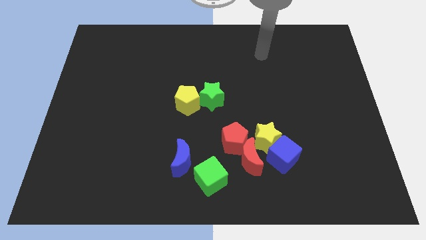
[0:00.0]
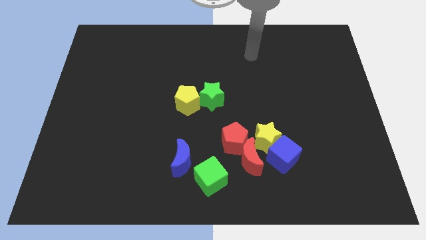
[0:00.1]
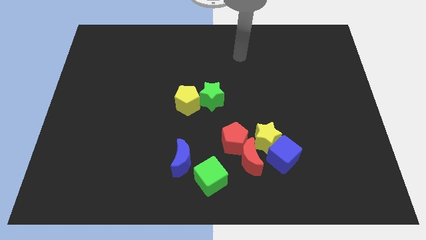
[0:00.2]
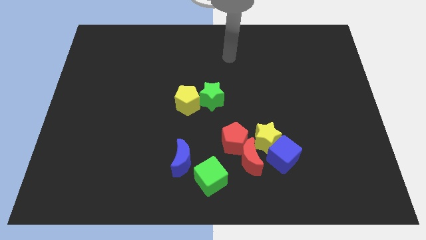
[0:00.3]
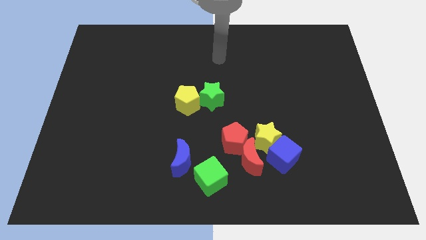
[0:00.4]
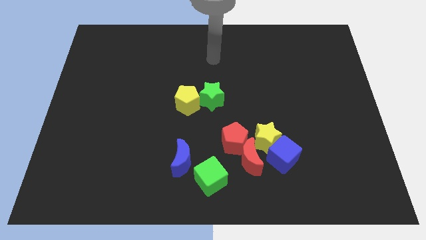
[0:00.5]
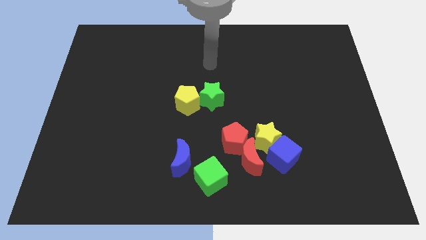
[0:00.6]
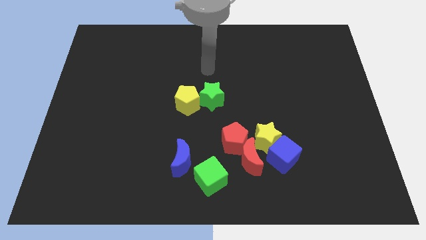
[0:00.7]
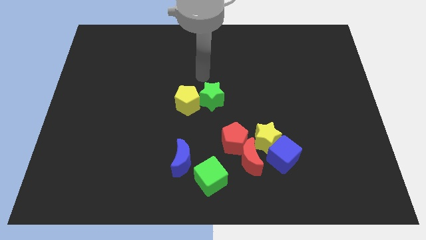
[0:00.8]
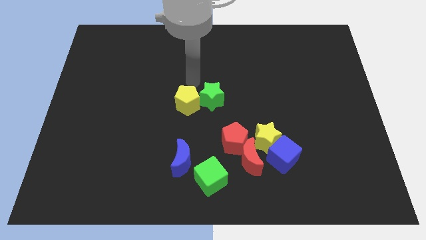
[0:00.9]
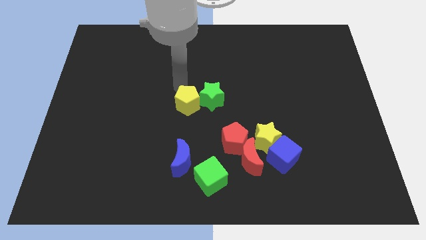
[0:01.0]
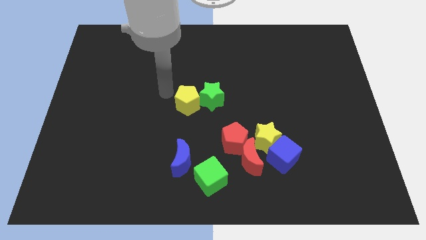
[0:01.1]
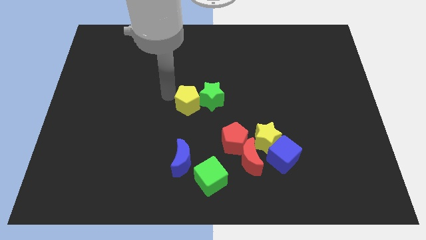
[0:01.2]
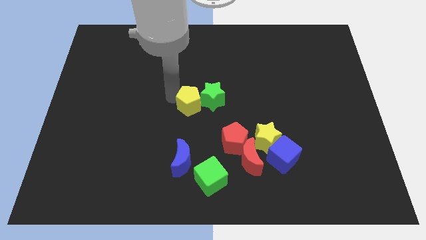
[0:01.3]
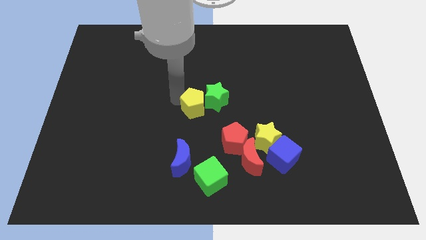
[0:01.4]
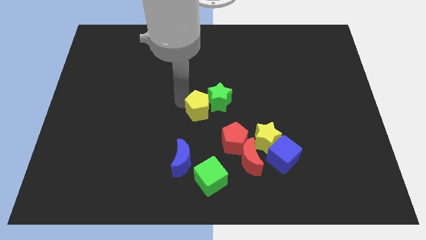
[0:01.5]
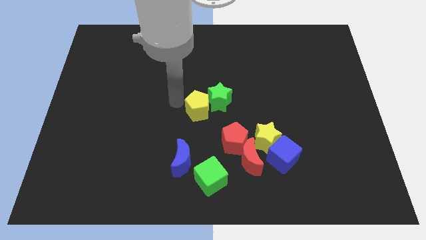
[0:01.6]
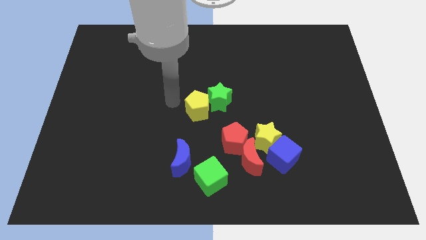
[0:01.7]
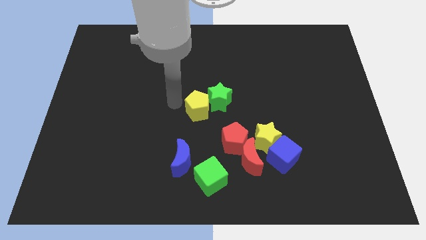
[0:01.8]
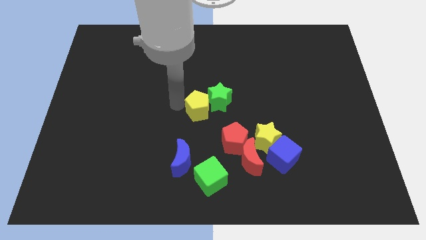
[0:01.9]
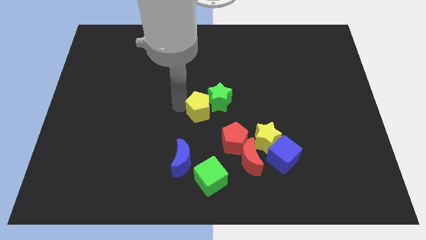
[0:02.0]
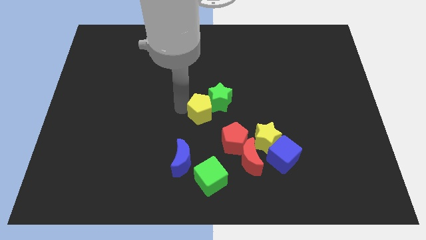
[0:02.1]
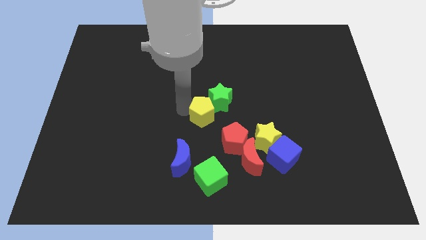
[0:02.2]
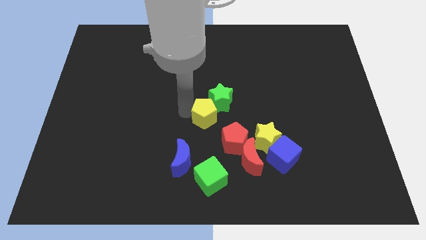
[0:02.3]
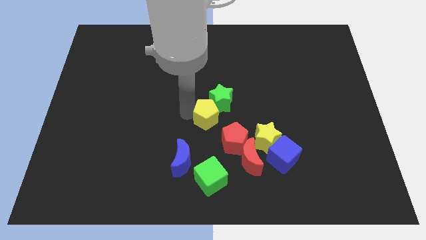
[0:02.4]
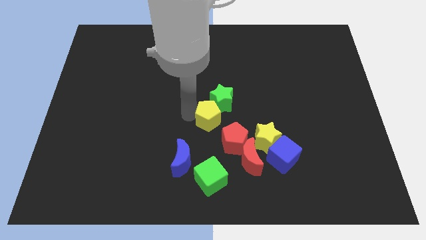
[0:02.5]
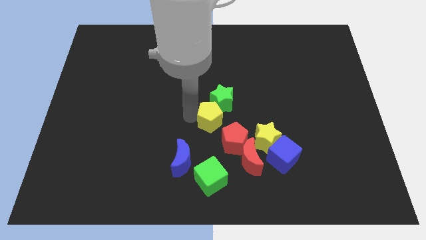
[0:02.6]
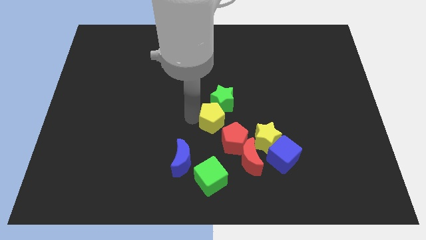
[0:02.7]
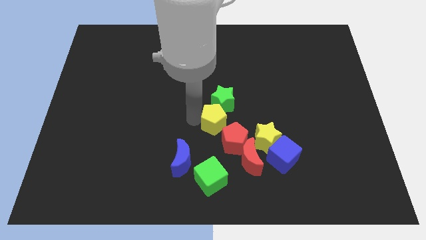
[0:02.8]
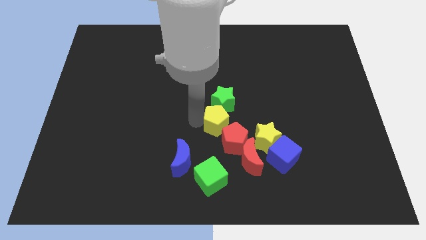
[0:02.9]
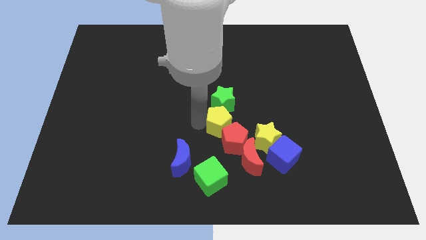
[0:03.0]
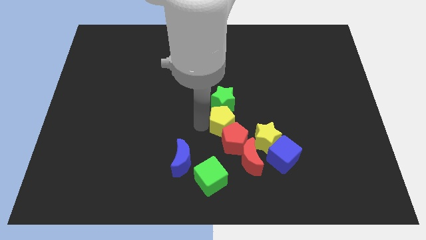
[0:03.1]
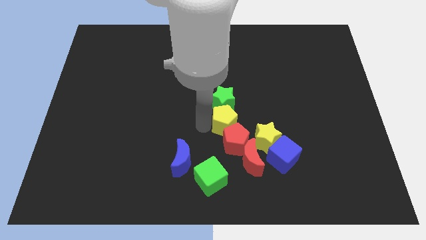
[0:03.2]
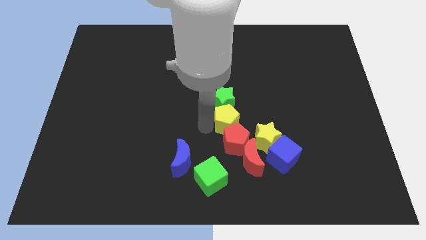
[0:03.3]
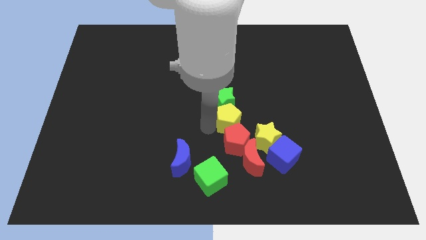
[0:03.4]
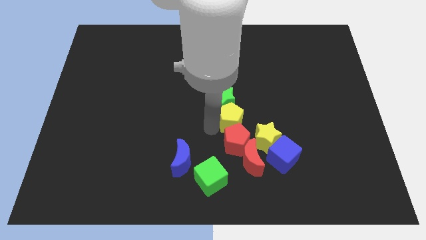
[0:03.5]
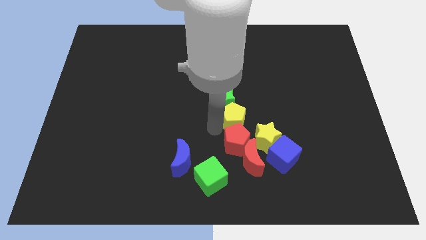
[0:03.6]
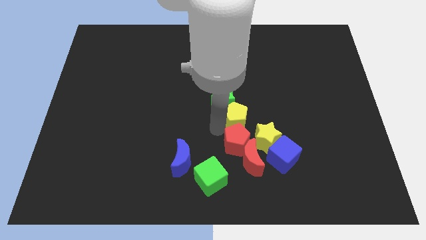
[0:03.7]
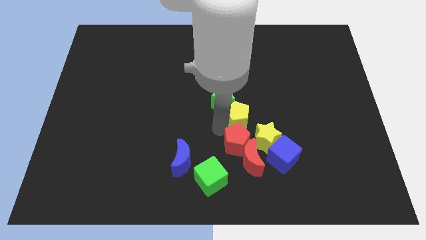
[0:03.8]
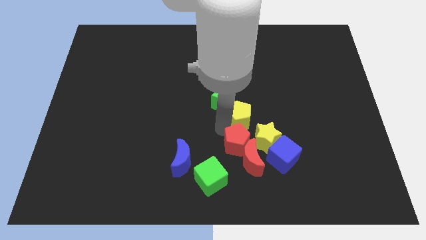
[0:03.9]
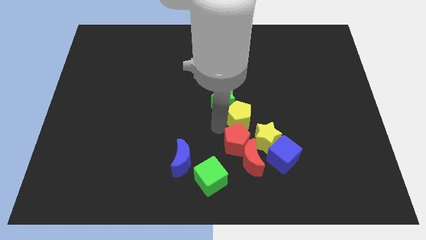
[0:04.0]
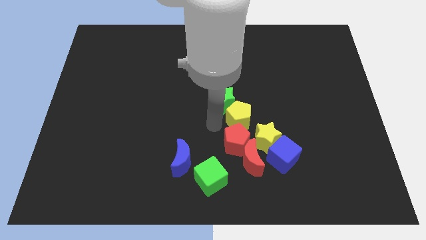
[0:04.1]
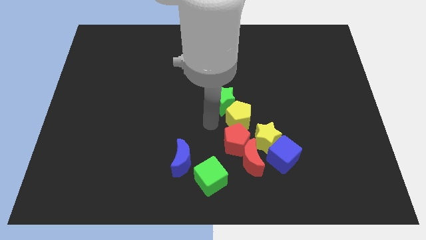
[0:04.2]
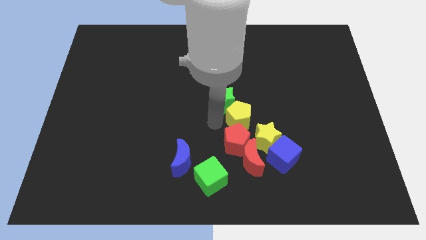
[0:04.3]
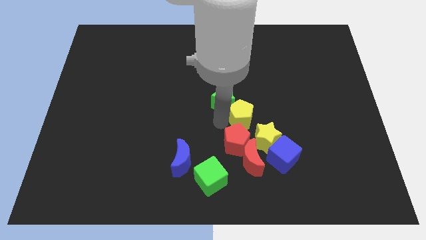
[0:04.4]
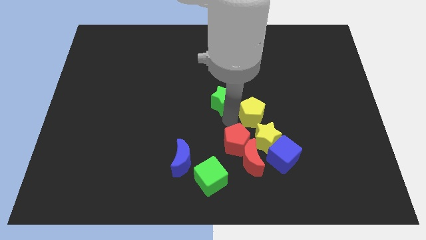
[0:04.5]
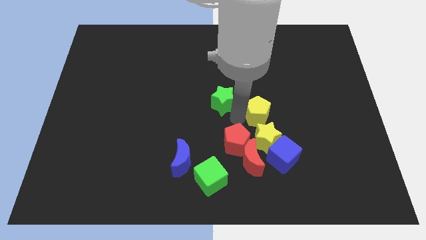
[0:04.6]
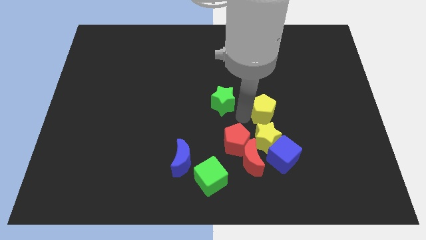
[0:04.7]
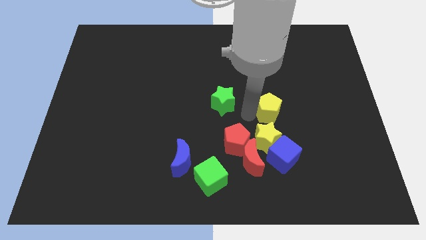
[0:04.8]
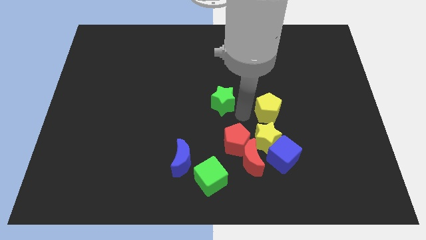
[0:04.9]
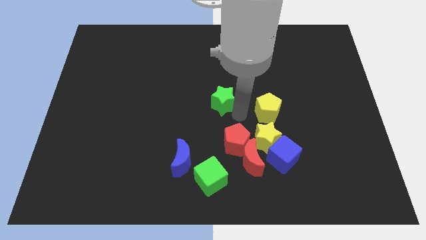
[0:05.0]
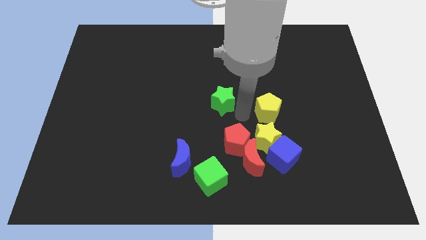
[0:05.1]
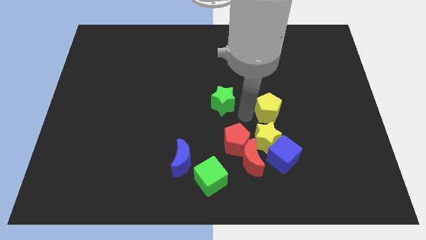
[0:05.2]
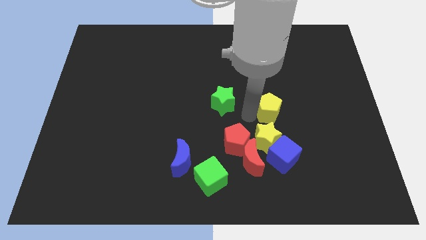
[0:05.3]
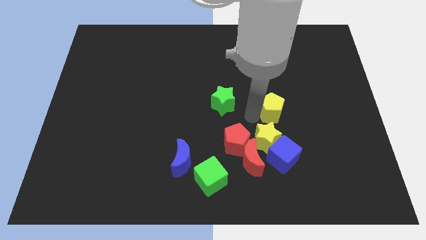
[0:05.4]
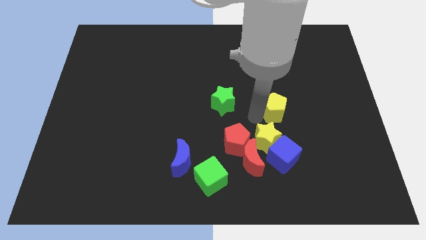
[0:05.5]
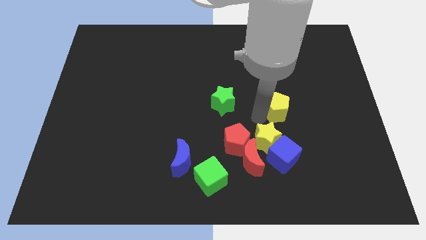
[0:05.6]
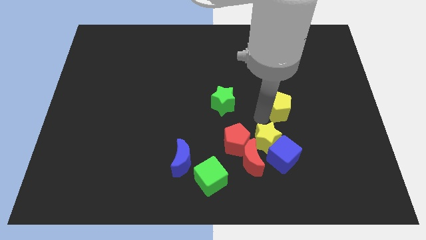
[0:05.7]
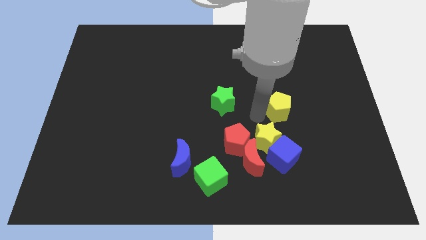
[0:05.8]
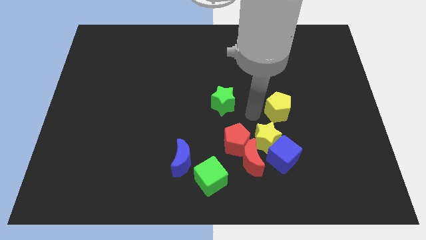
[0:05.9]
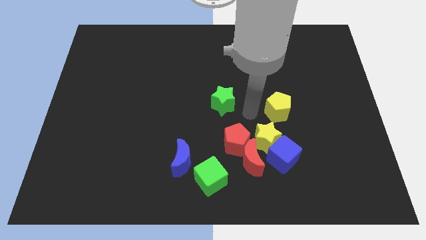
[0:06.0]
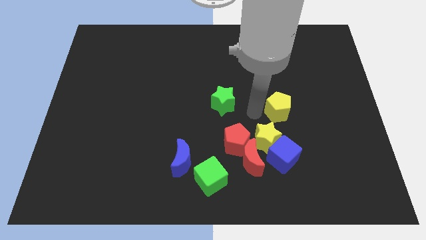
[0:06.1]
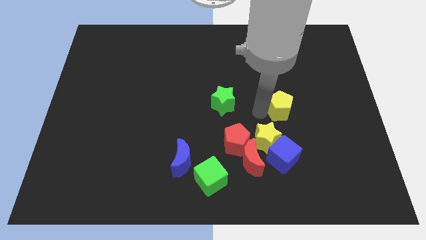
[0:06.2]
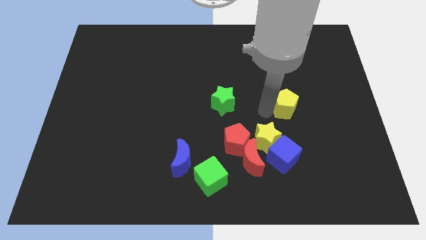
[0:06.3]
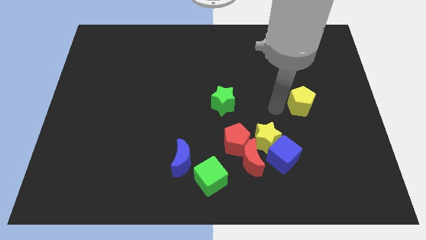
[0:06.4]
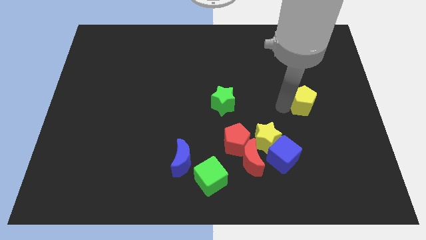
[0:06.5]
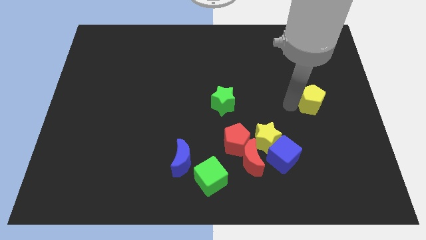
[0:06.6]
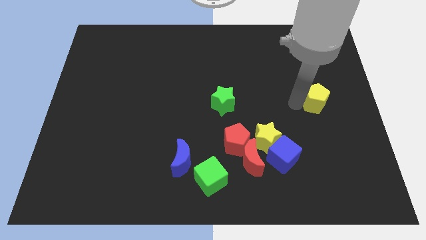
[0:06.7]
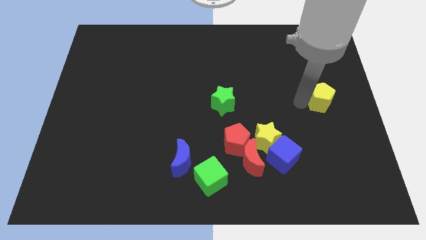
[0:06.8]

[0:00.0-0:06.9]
push the yellow pentagon to the right side of the board
